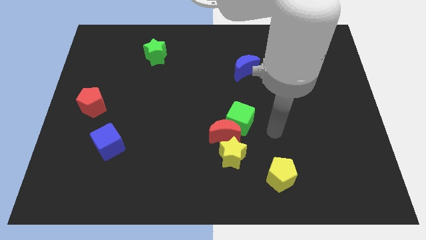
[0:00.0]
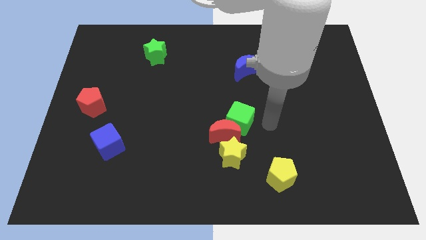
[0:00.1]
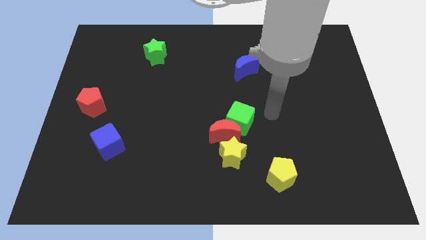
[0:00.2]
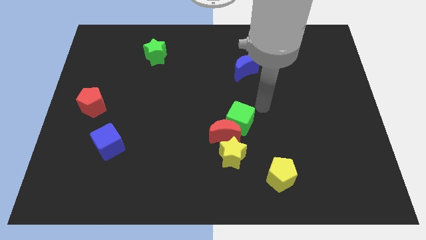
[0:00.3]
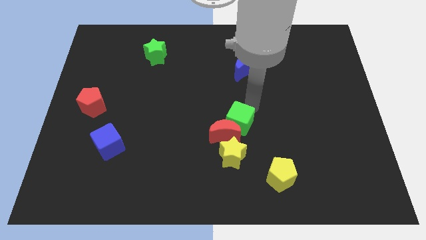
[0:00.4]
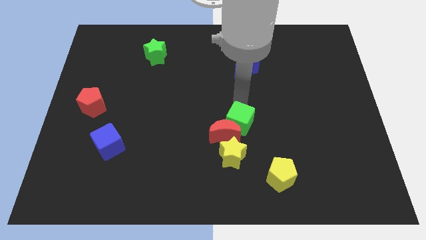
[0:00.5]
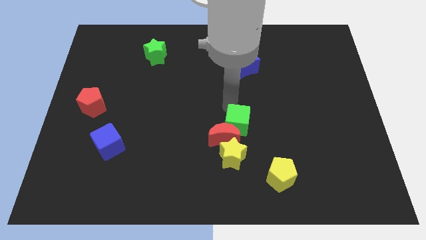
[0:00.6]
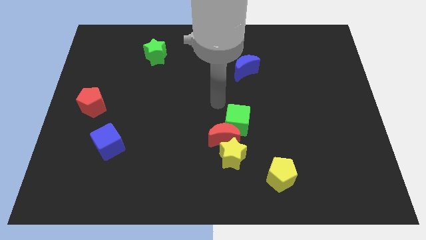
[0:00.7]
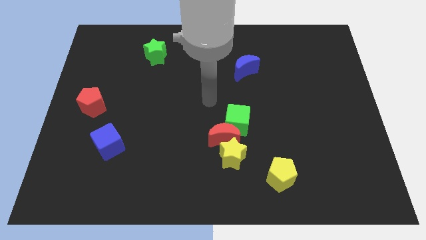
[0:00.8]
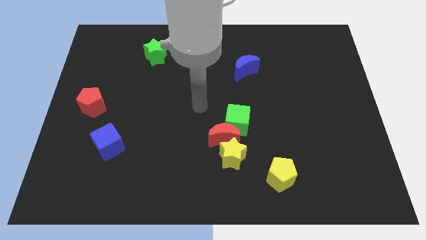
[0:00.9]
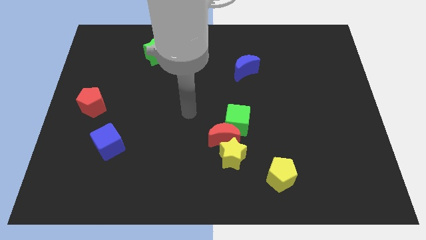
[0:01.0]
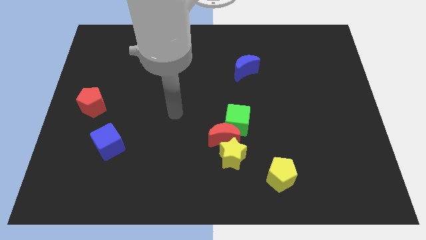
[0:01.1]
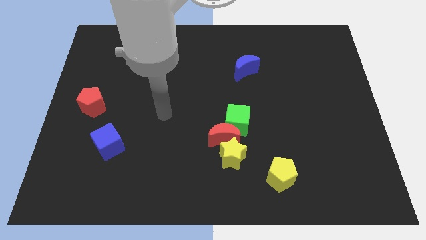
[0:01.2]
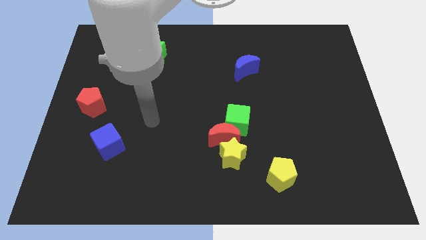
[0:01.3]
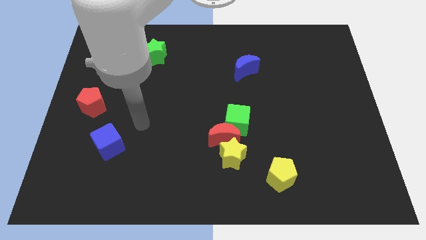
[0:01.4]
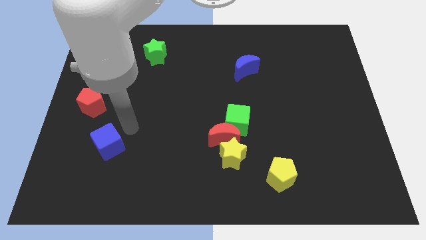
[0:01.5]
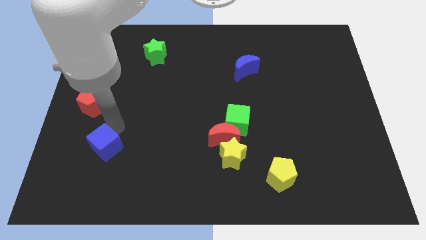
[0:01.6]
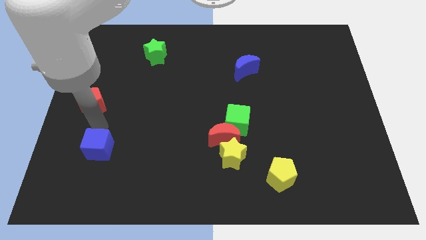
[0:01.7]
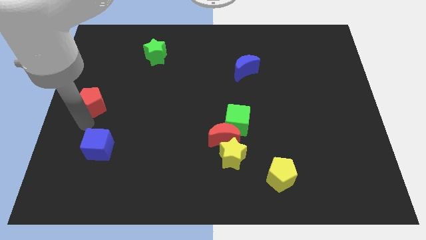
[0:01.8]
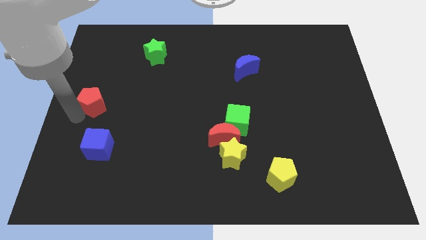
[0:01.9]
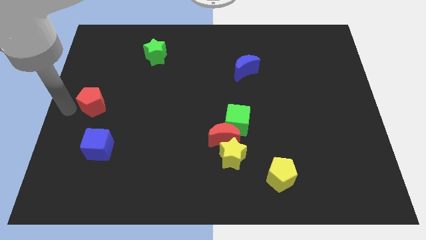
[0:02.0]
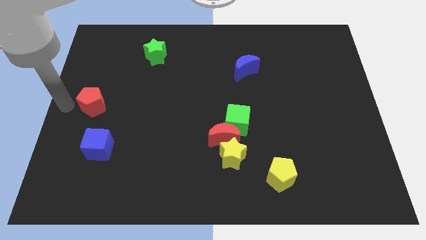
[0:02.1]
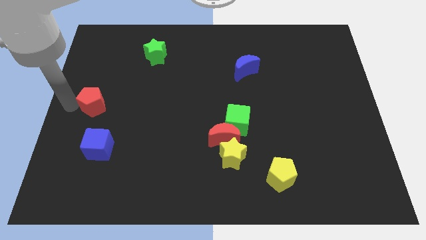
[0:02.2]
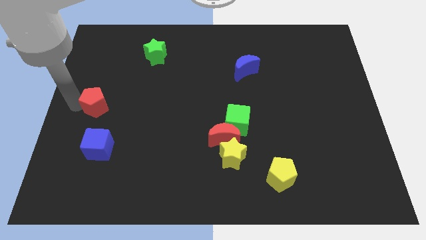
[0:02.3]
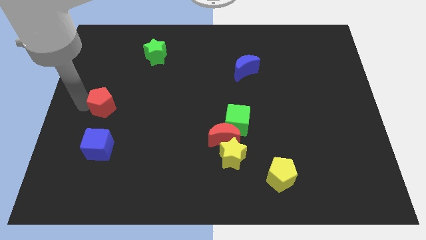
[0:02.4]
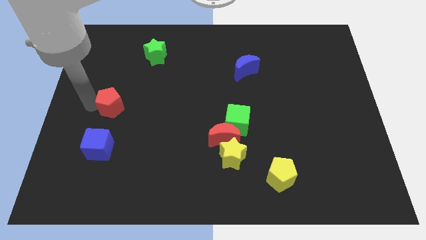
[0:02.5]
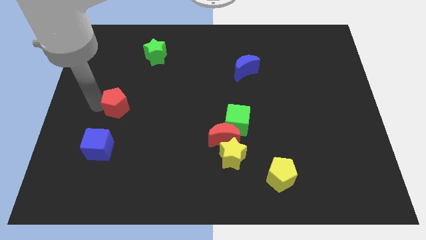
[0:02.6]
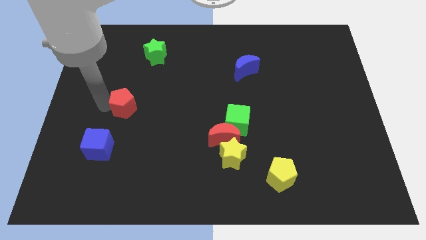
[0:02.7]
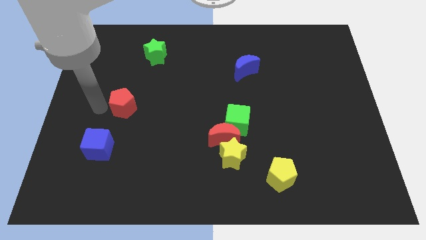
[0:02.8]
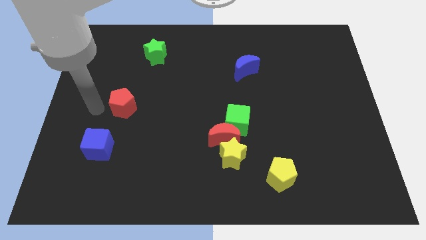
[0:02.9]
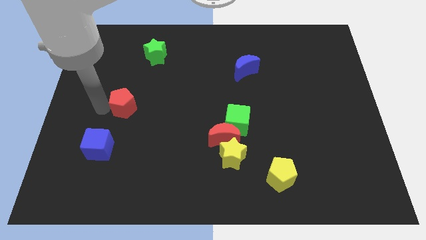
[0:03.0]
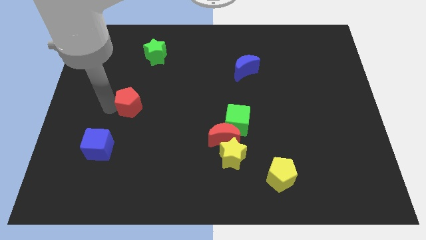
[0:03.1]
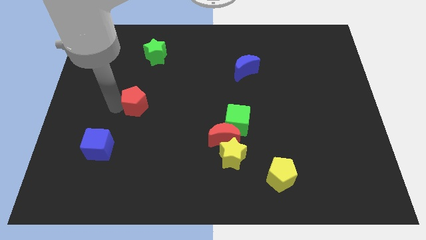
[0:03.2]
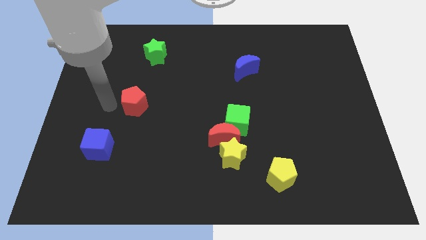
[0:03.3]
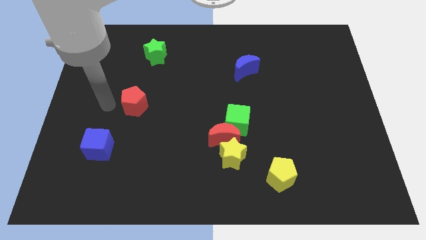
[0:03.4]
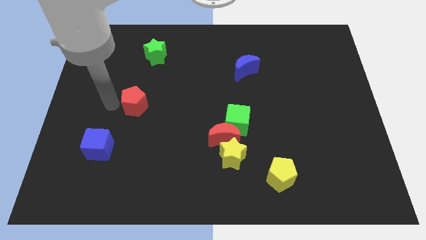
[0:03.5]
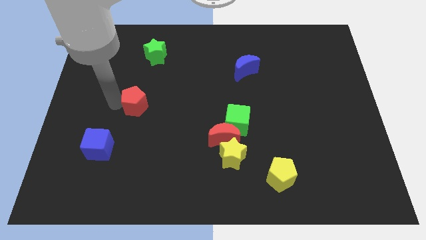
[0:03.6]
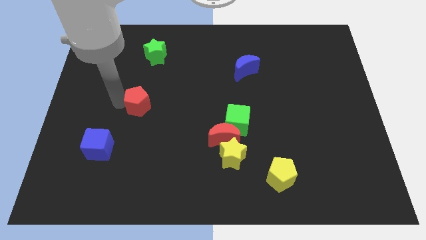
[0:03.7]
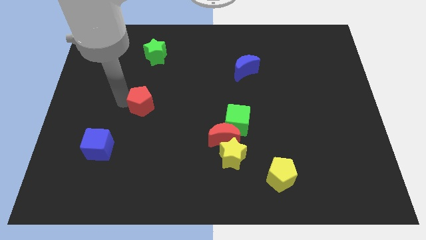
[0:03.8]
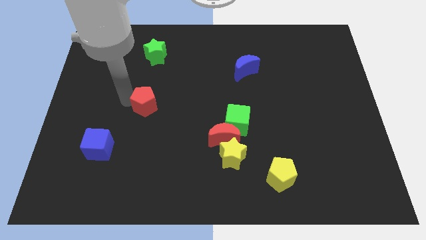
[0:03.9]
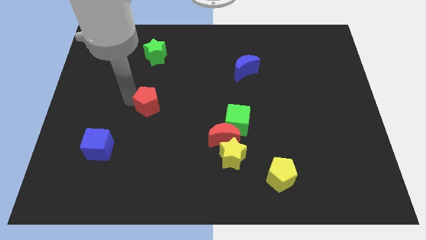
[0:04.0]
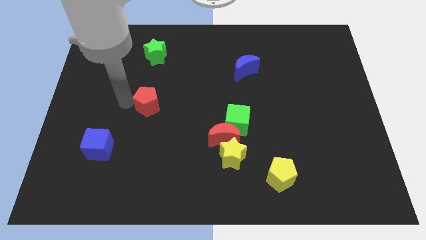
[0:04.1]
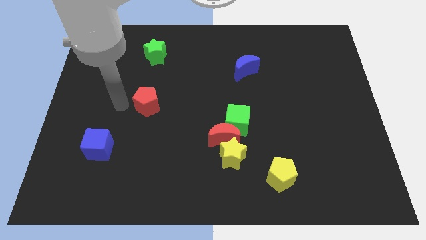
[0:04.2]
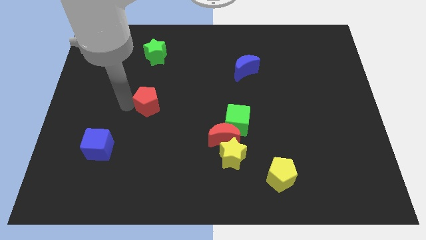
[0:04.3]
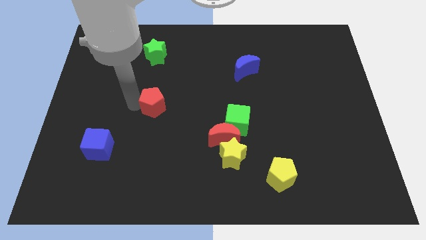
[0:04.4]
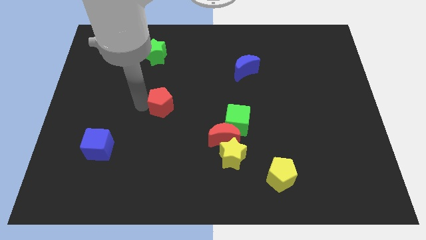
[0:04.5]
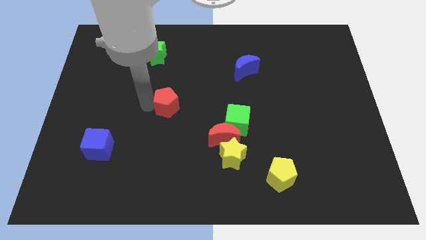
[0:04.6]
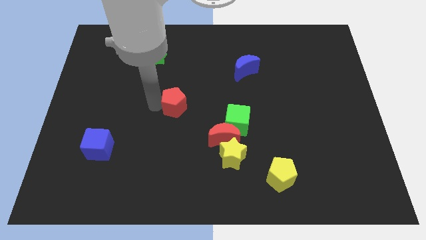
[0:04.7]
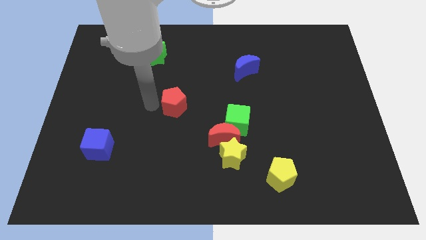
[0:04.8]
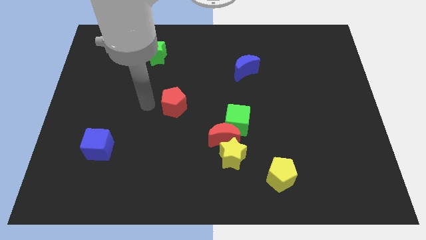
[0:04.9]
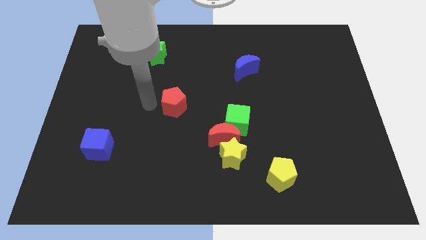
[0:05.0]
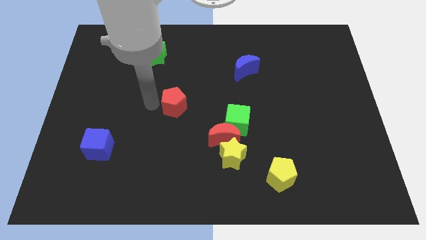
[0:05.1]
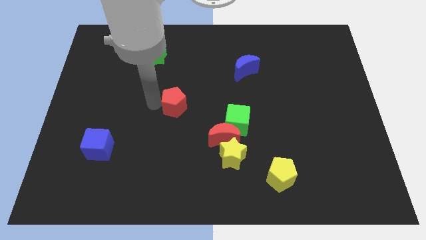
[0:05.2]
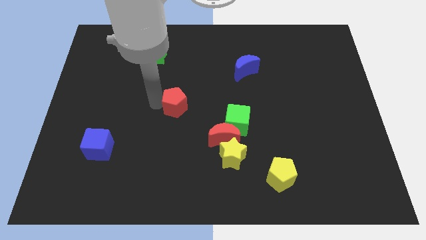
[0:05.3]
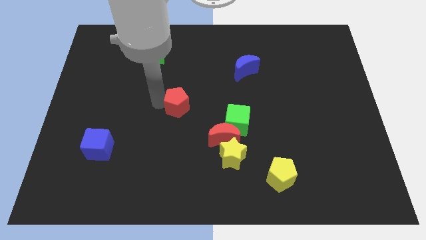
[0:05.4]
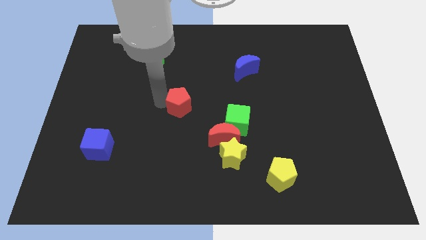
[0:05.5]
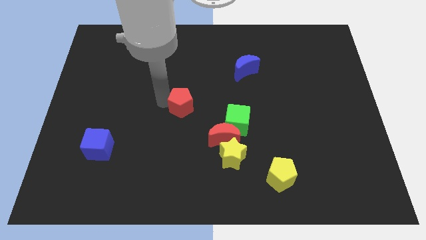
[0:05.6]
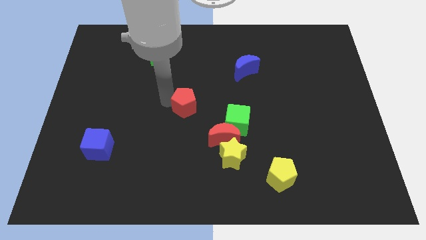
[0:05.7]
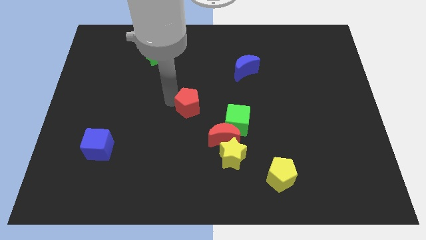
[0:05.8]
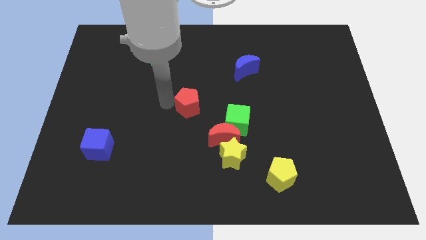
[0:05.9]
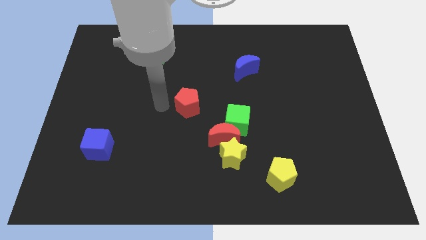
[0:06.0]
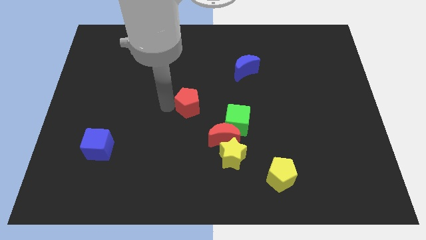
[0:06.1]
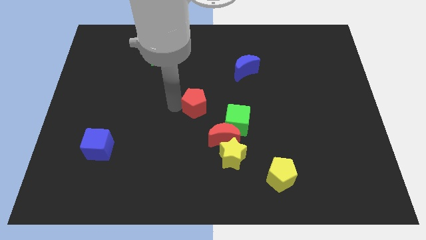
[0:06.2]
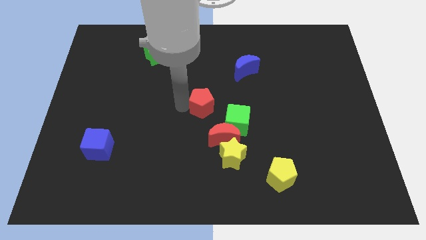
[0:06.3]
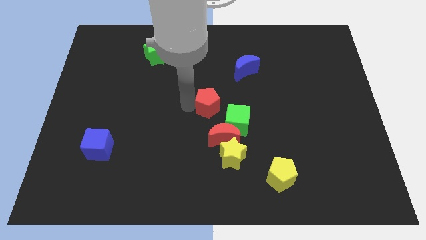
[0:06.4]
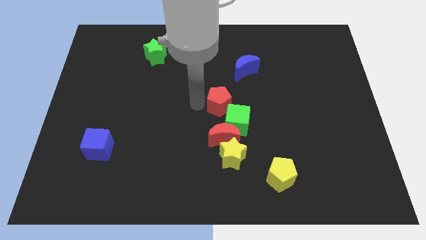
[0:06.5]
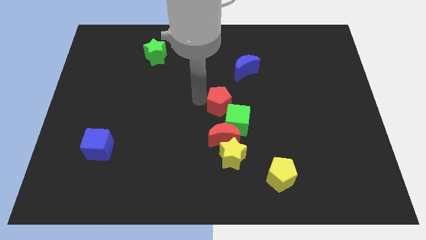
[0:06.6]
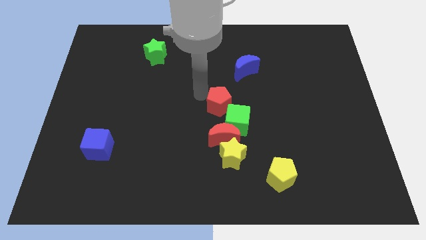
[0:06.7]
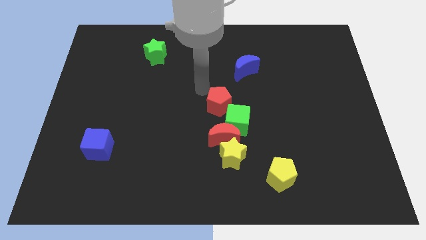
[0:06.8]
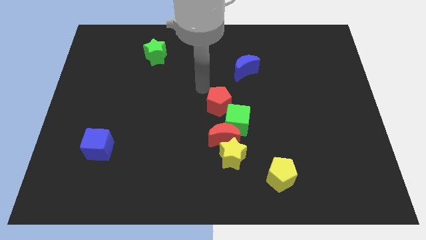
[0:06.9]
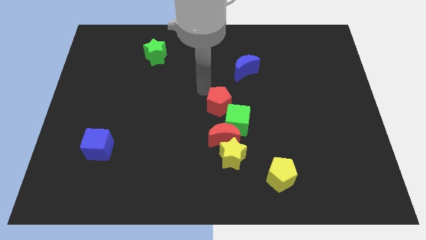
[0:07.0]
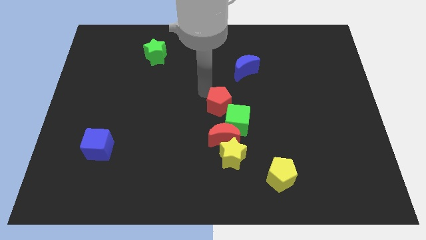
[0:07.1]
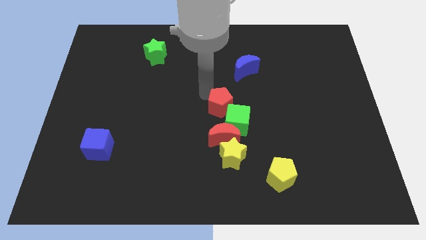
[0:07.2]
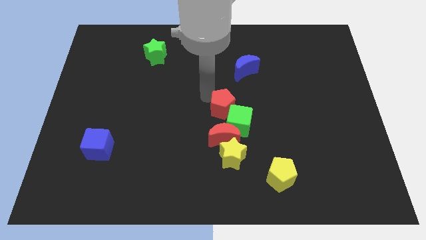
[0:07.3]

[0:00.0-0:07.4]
put the red pentagon close to the green cube

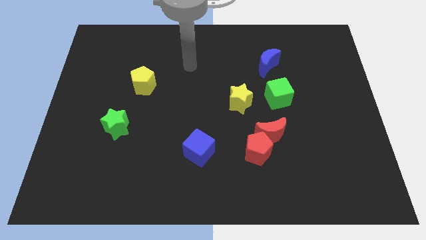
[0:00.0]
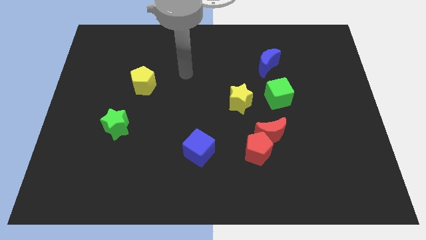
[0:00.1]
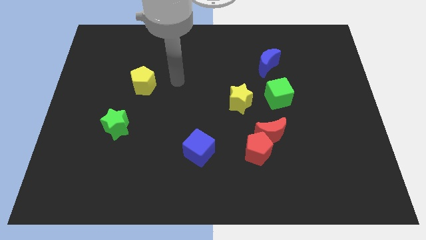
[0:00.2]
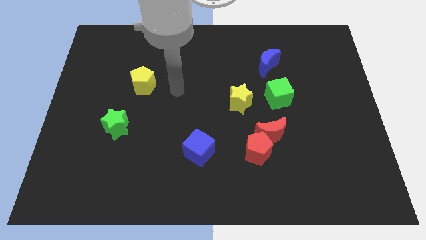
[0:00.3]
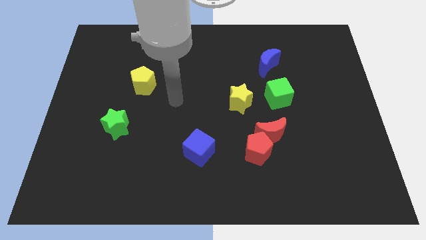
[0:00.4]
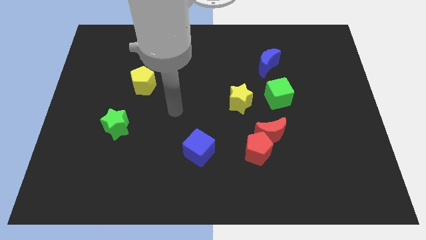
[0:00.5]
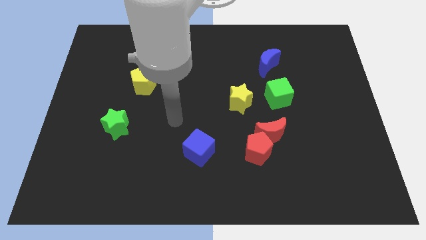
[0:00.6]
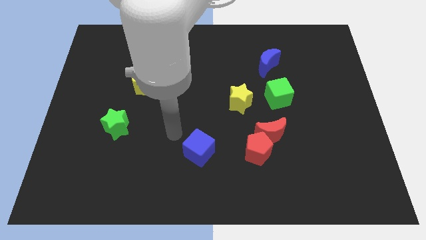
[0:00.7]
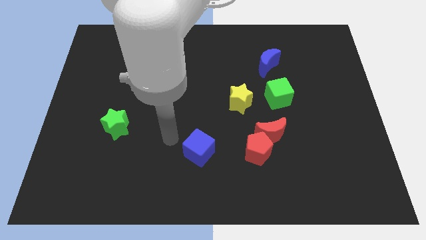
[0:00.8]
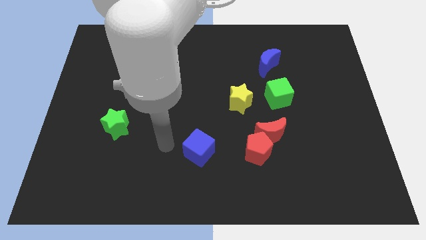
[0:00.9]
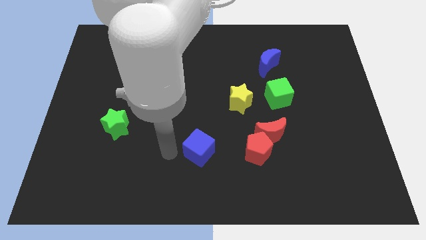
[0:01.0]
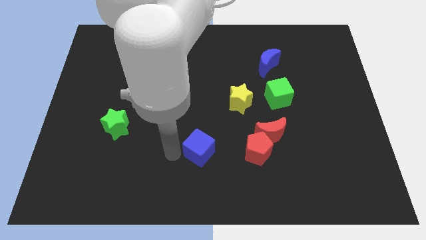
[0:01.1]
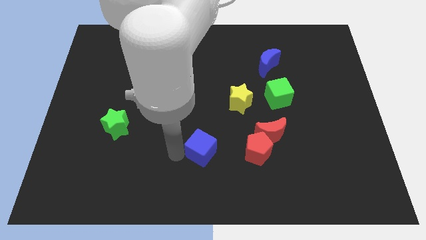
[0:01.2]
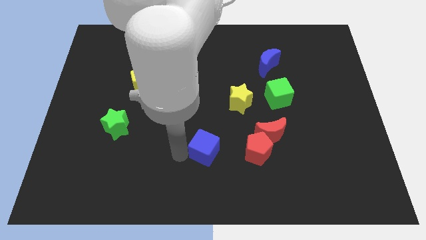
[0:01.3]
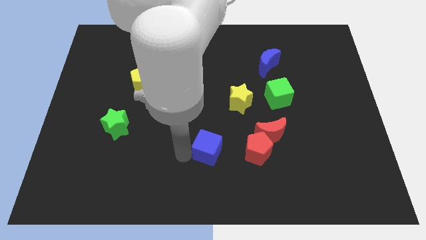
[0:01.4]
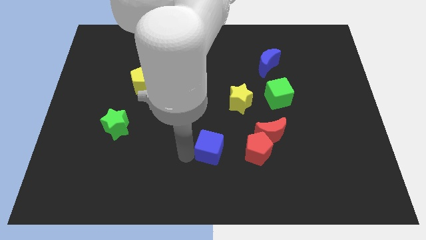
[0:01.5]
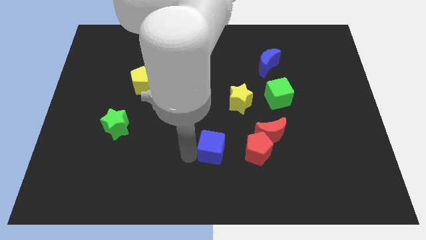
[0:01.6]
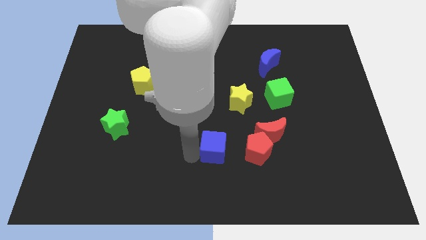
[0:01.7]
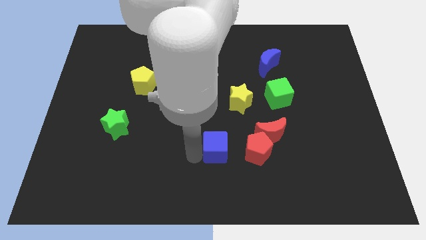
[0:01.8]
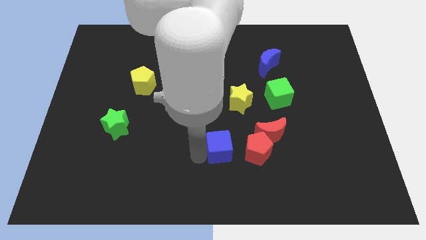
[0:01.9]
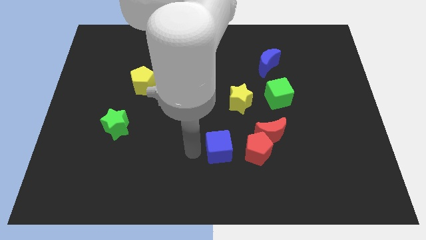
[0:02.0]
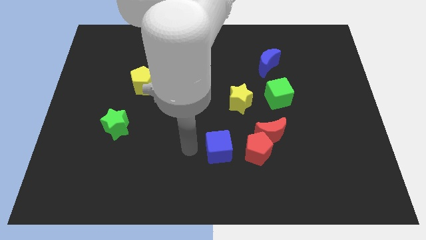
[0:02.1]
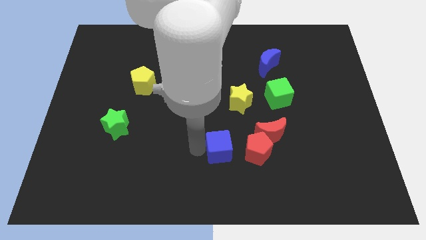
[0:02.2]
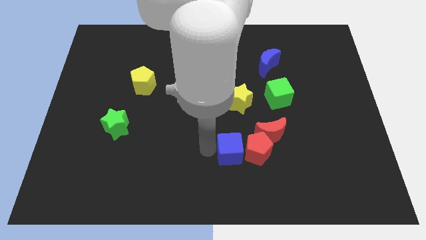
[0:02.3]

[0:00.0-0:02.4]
push the blue cube next to the red pentagon
